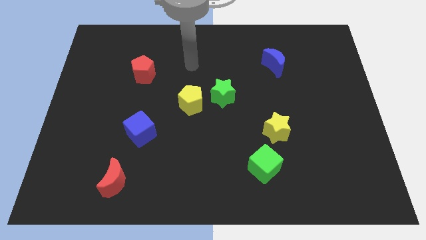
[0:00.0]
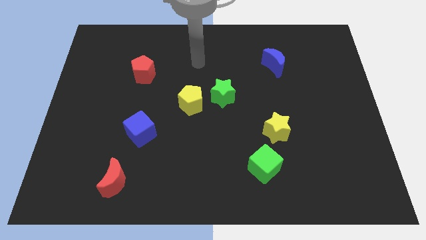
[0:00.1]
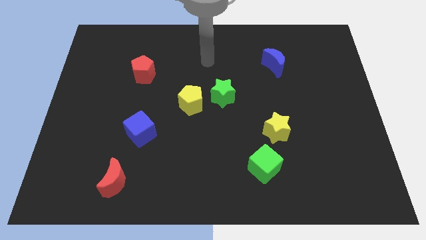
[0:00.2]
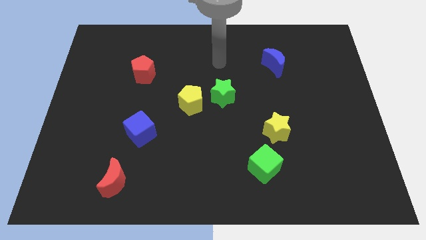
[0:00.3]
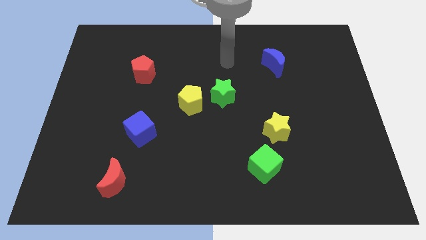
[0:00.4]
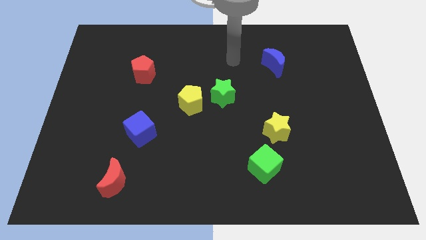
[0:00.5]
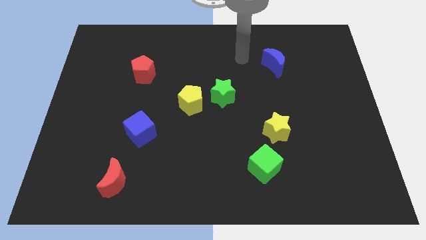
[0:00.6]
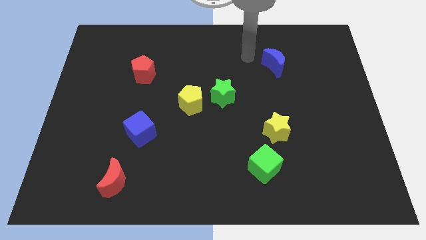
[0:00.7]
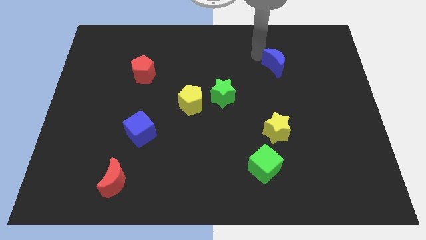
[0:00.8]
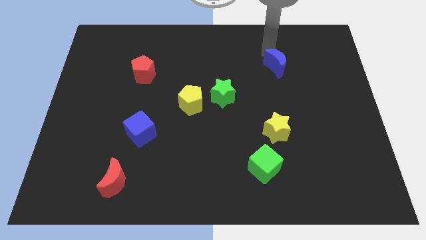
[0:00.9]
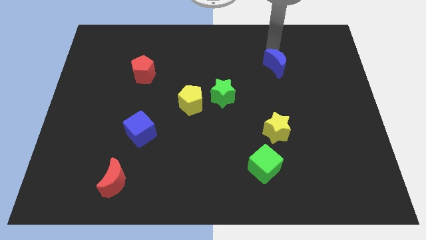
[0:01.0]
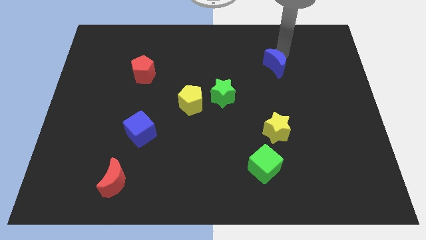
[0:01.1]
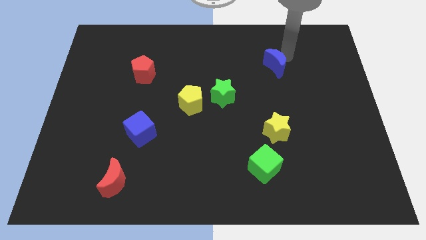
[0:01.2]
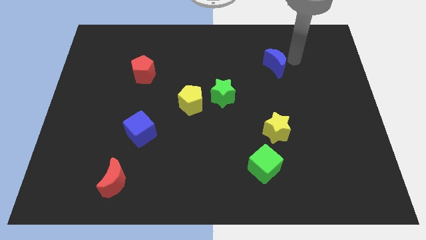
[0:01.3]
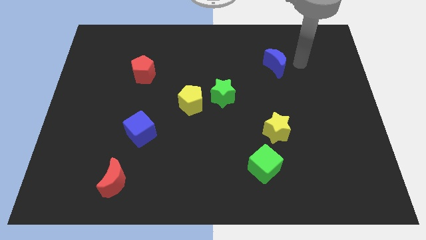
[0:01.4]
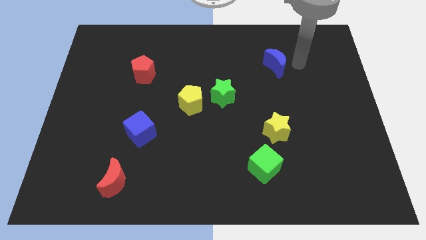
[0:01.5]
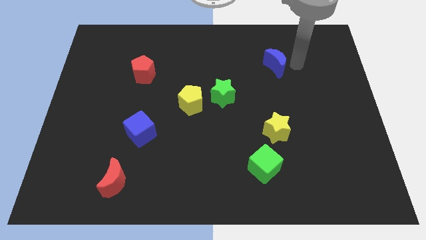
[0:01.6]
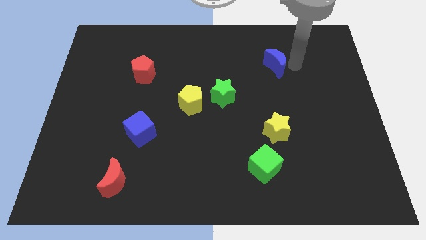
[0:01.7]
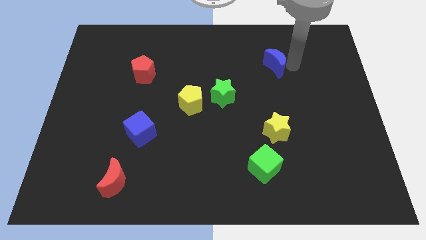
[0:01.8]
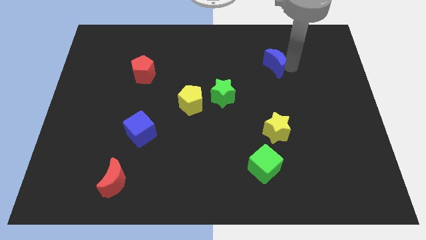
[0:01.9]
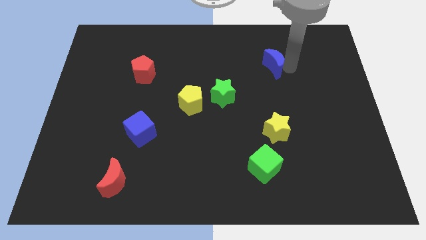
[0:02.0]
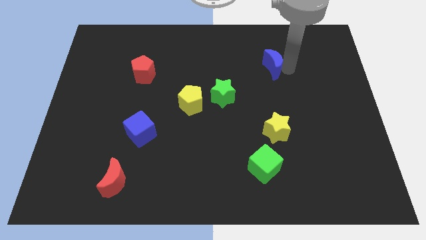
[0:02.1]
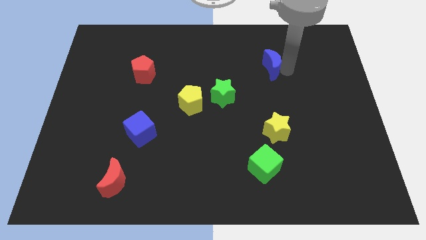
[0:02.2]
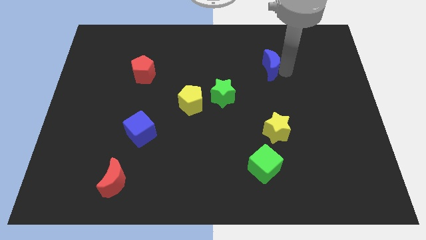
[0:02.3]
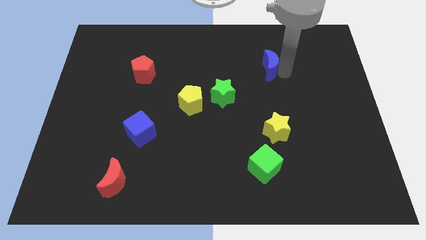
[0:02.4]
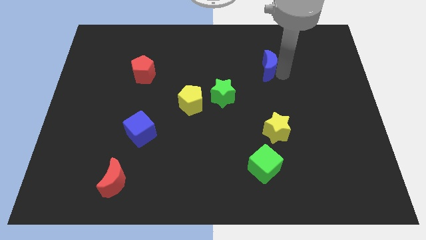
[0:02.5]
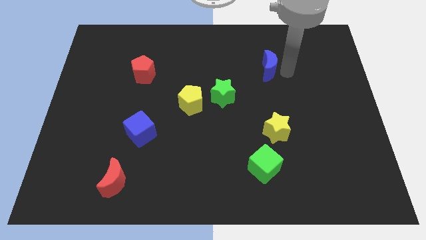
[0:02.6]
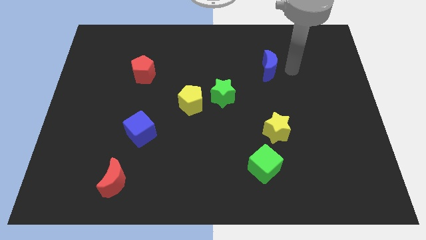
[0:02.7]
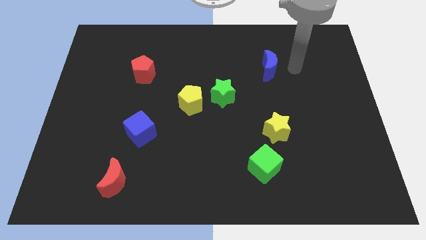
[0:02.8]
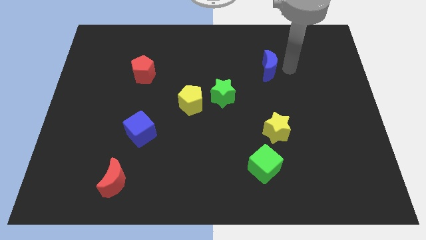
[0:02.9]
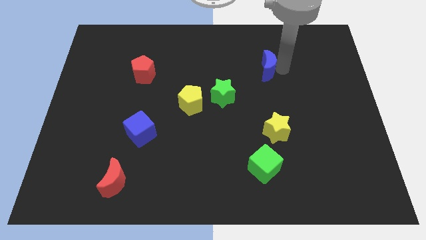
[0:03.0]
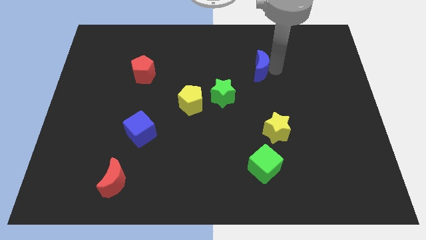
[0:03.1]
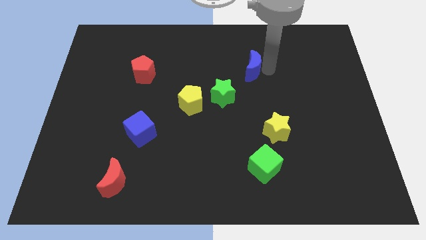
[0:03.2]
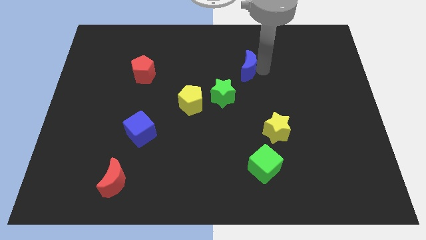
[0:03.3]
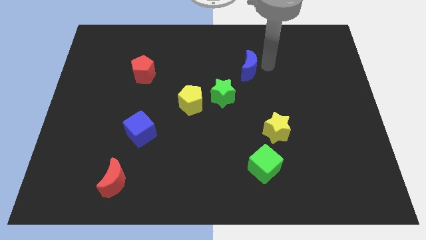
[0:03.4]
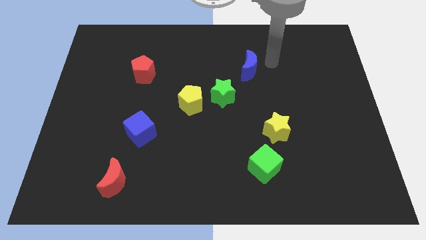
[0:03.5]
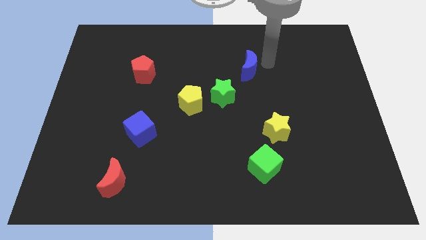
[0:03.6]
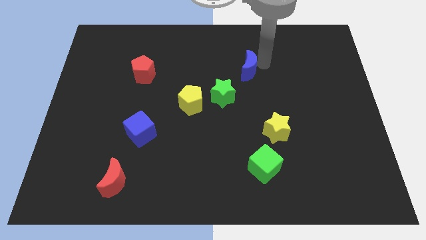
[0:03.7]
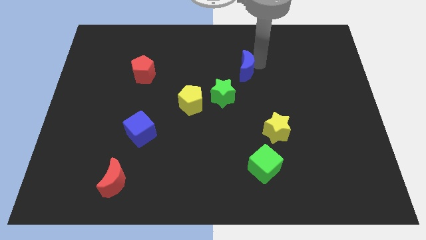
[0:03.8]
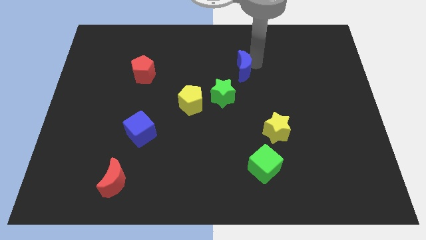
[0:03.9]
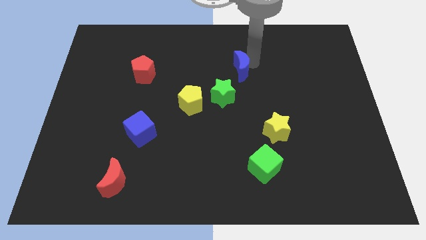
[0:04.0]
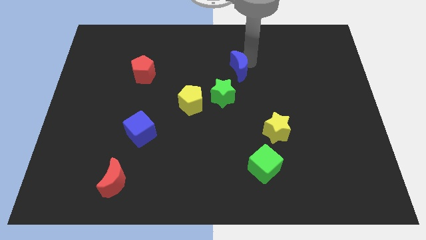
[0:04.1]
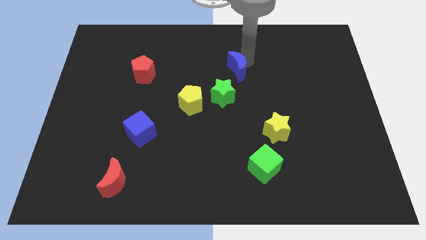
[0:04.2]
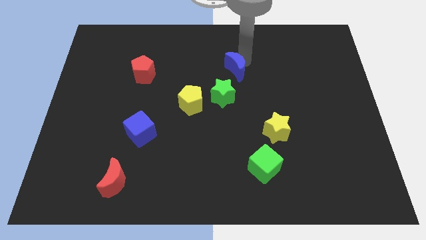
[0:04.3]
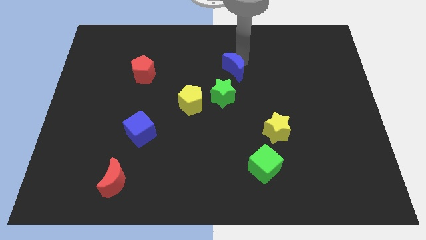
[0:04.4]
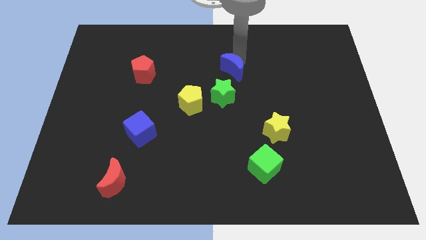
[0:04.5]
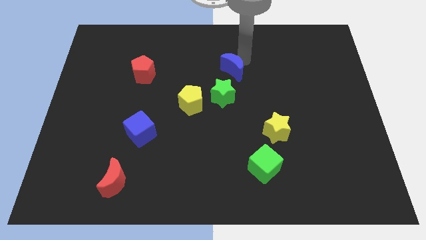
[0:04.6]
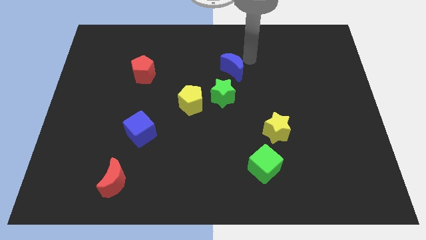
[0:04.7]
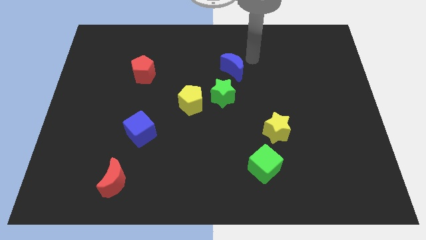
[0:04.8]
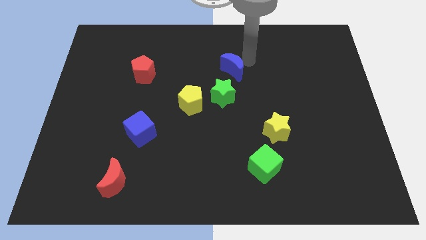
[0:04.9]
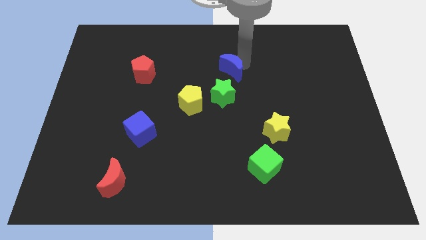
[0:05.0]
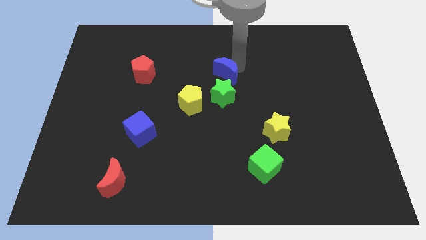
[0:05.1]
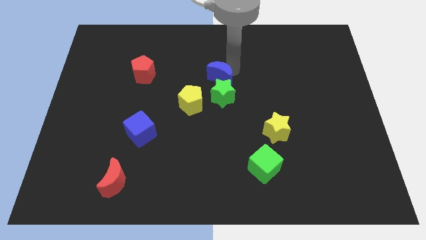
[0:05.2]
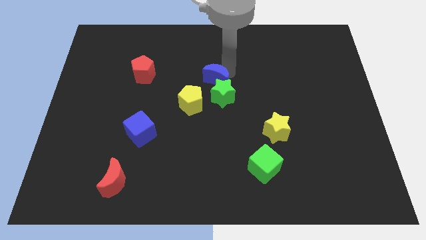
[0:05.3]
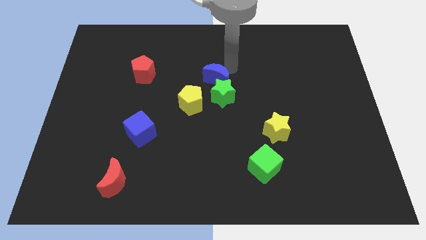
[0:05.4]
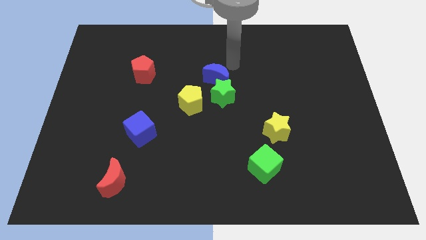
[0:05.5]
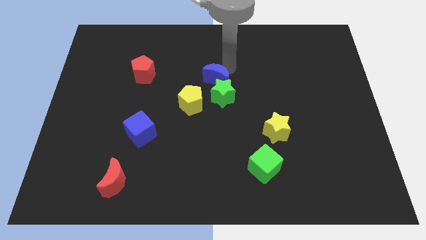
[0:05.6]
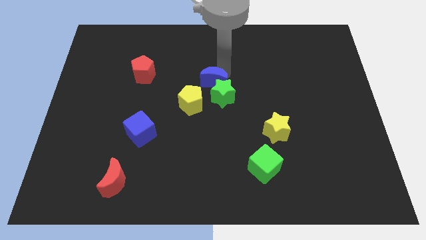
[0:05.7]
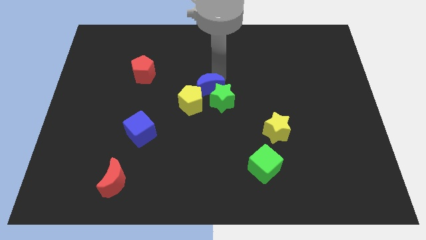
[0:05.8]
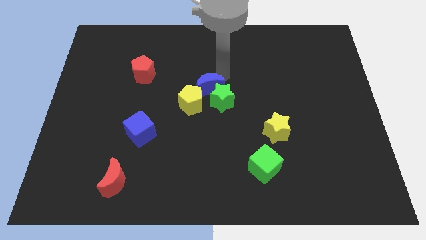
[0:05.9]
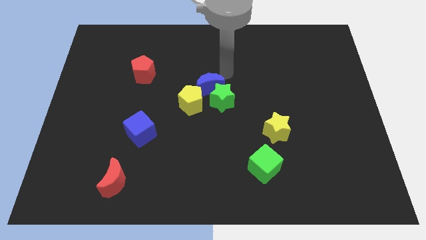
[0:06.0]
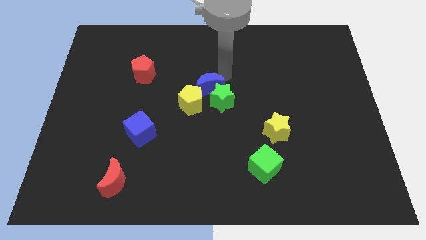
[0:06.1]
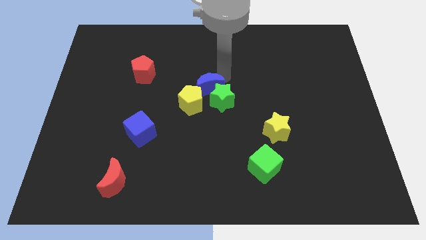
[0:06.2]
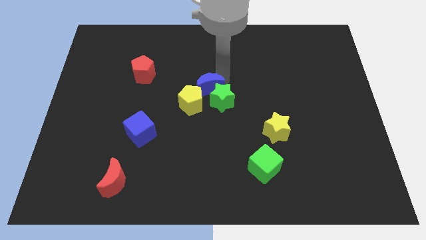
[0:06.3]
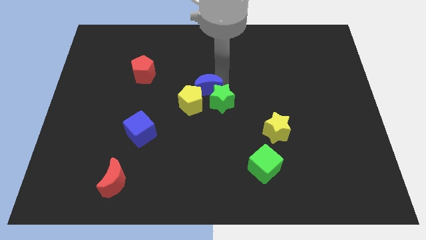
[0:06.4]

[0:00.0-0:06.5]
push the blue moon to the yellow pentagon

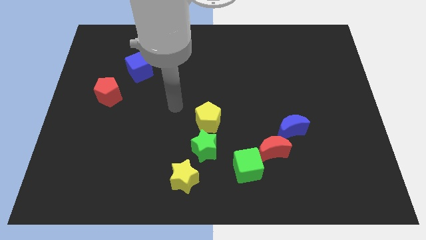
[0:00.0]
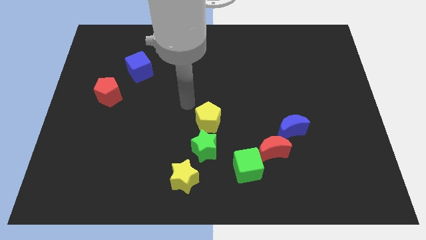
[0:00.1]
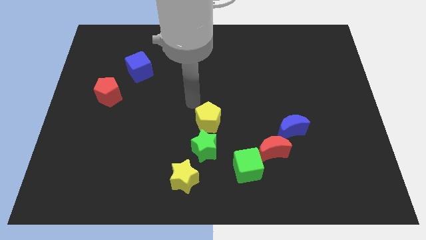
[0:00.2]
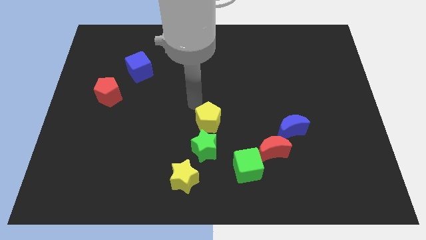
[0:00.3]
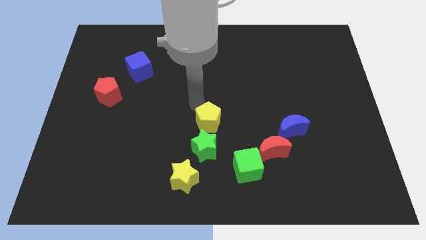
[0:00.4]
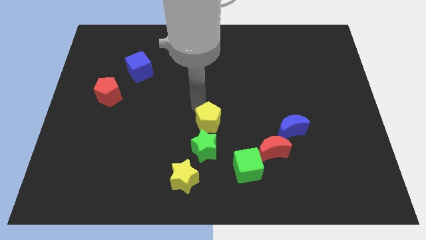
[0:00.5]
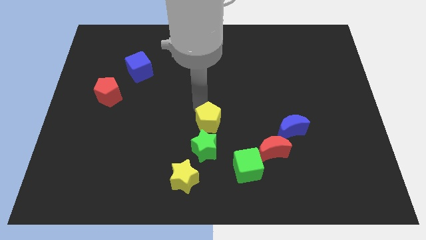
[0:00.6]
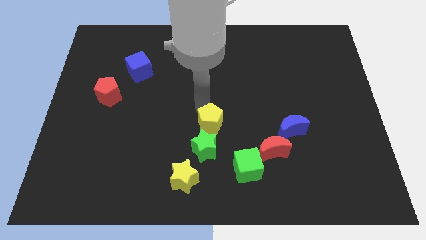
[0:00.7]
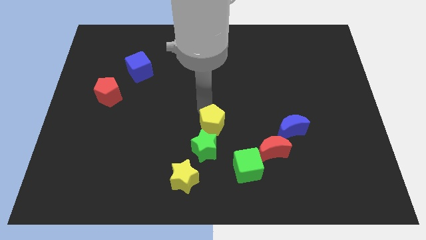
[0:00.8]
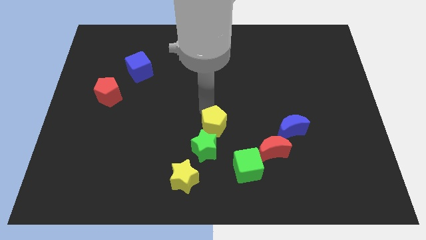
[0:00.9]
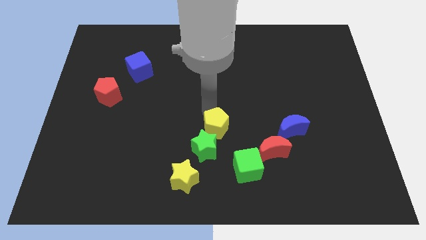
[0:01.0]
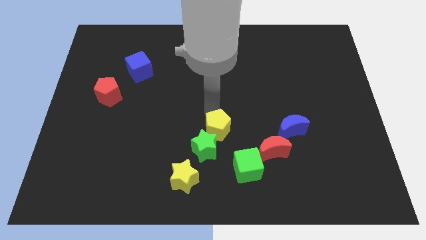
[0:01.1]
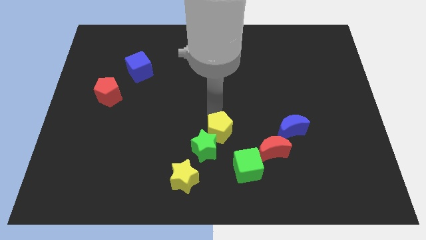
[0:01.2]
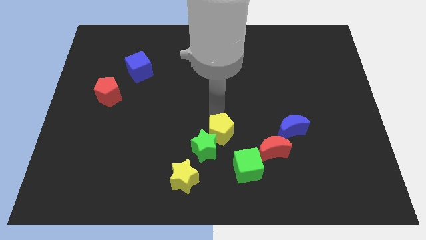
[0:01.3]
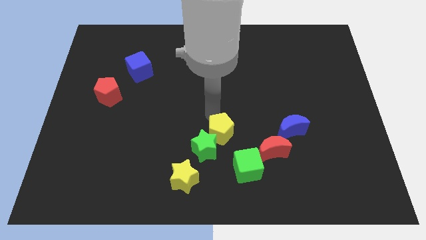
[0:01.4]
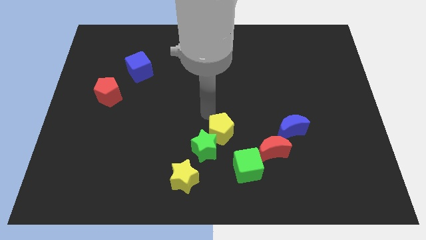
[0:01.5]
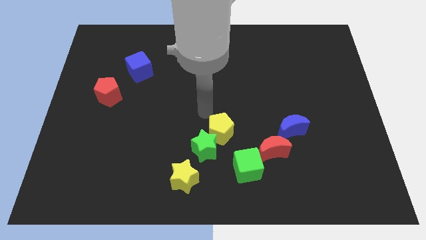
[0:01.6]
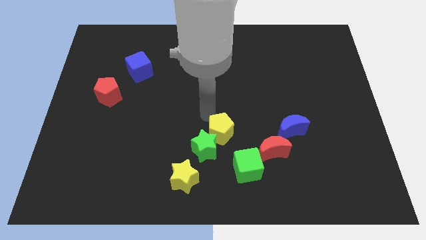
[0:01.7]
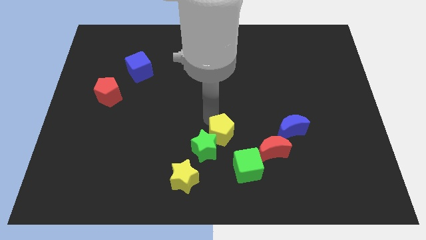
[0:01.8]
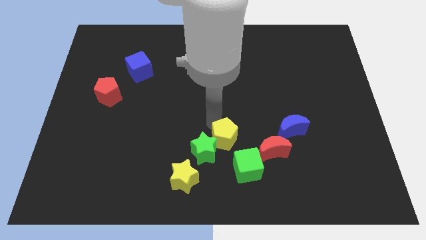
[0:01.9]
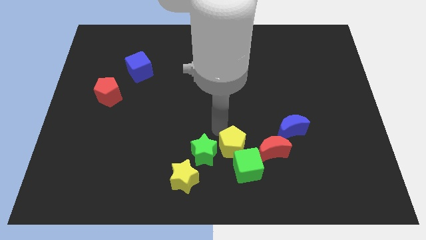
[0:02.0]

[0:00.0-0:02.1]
move the yellow pentagon to the green cube
